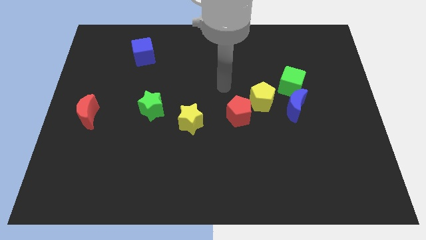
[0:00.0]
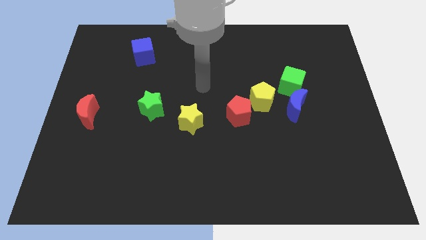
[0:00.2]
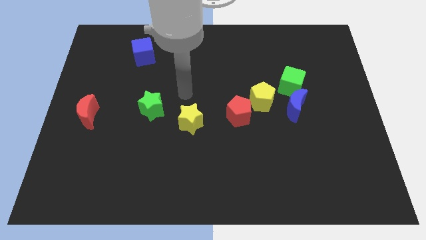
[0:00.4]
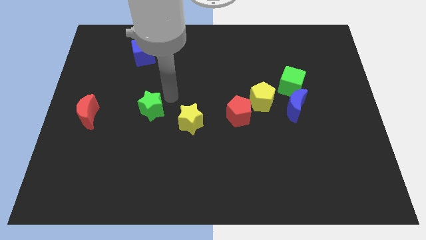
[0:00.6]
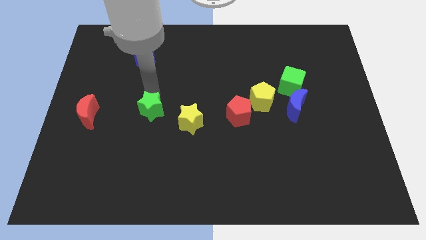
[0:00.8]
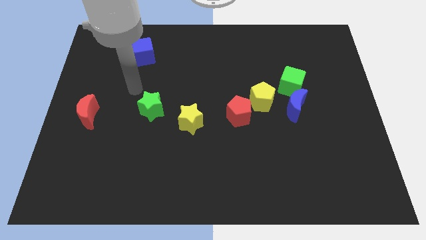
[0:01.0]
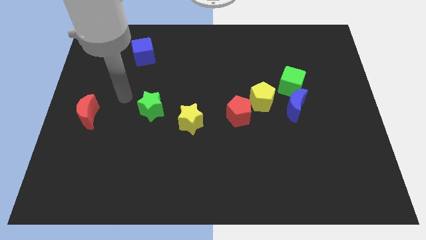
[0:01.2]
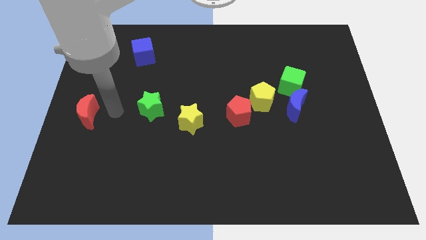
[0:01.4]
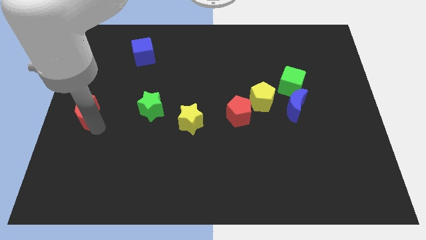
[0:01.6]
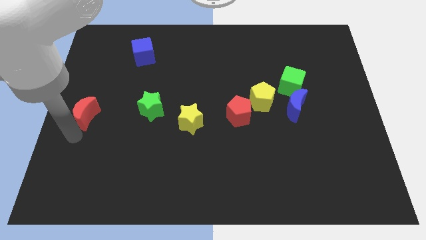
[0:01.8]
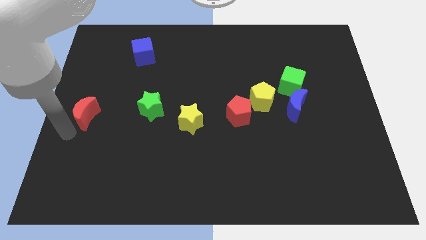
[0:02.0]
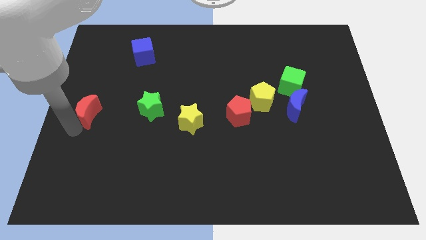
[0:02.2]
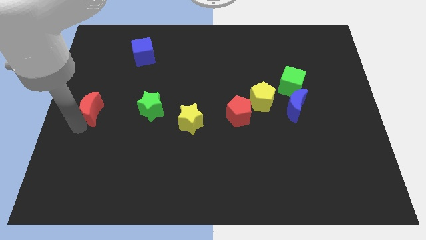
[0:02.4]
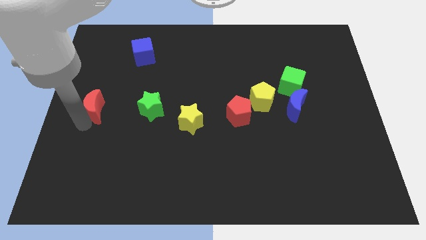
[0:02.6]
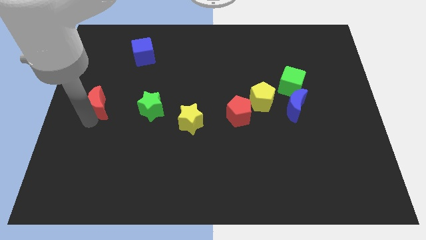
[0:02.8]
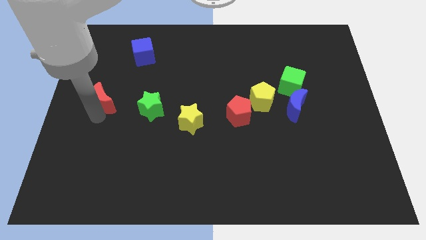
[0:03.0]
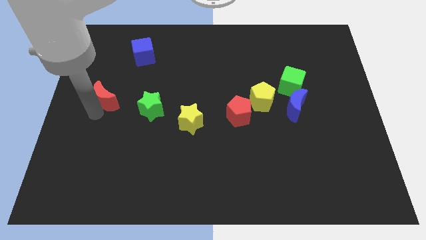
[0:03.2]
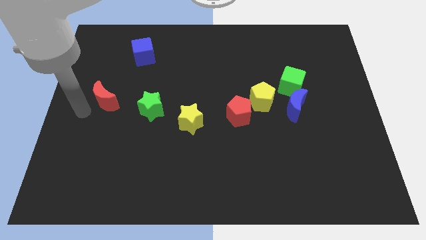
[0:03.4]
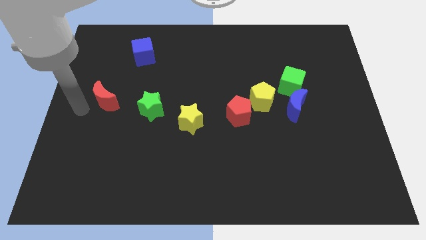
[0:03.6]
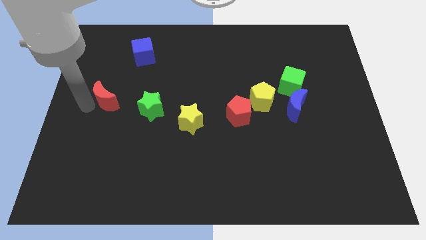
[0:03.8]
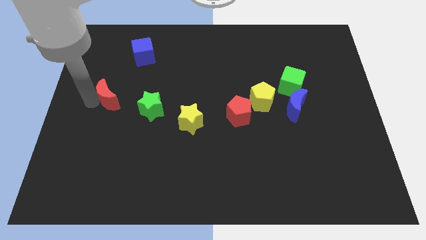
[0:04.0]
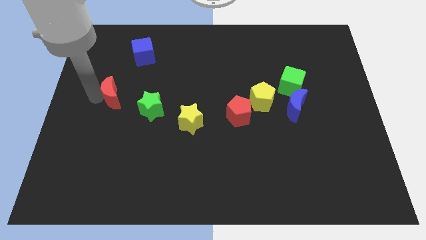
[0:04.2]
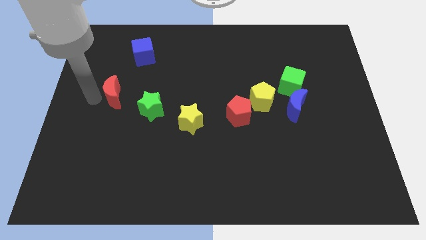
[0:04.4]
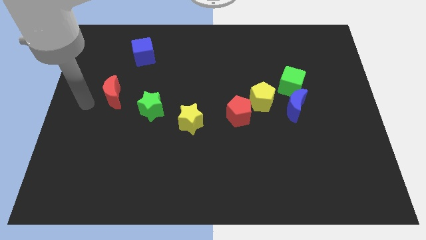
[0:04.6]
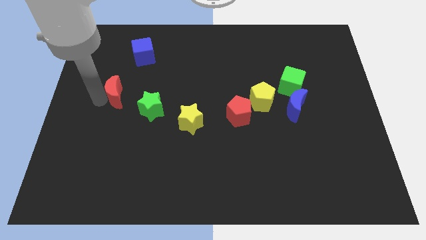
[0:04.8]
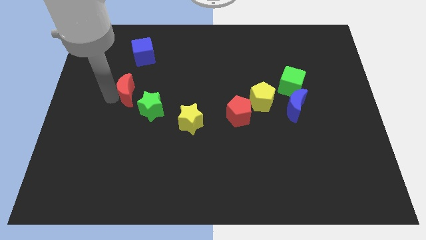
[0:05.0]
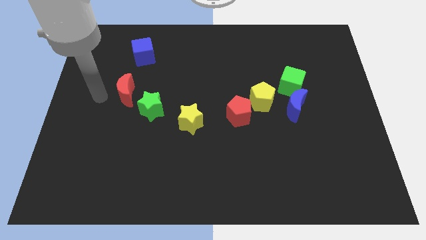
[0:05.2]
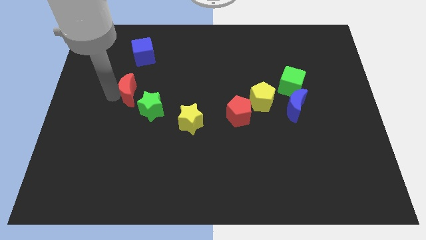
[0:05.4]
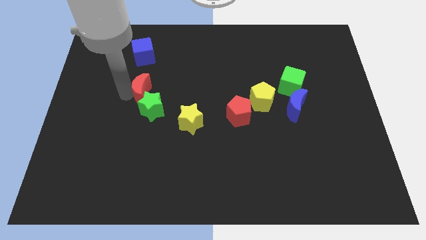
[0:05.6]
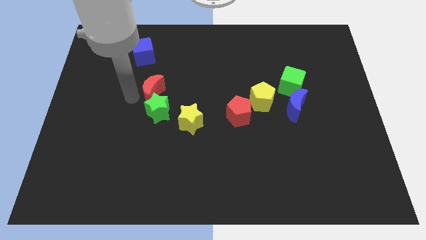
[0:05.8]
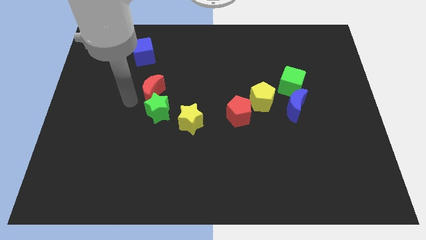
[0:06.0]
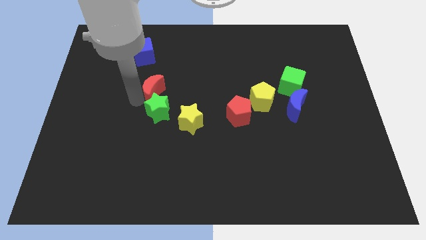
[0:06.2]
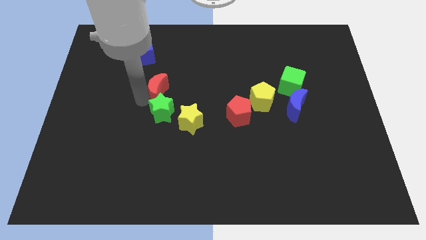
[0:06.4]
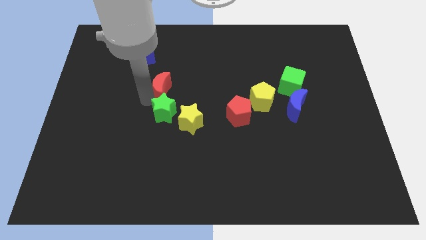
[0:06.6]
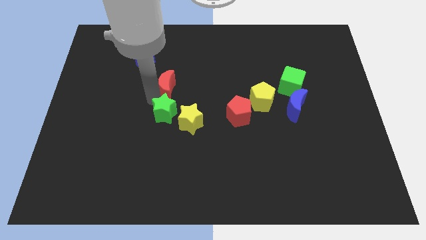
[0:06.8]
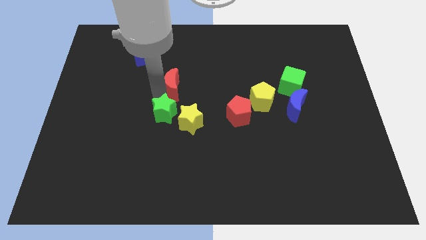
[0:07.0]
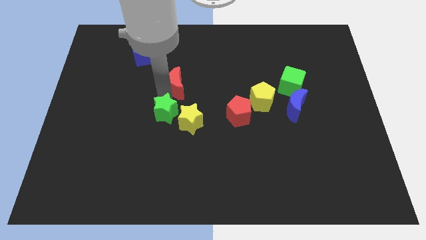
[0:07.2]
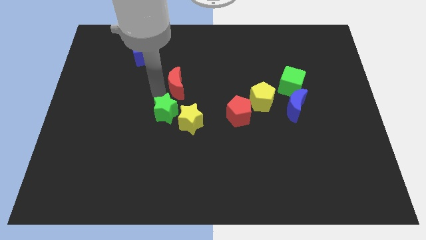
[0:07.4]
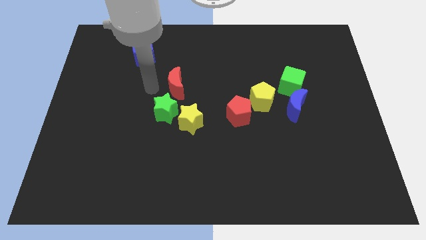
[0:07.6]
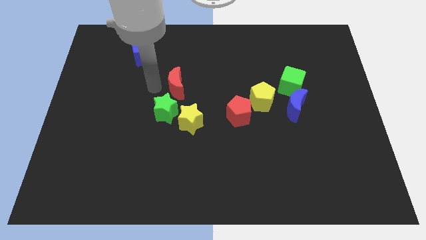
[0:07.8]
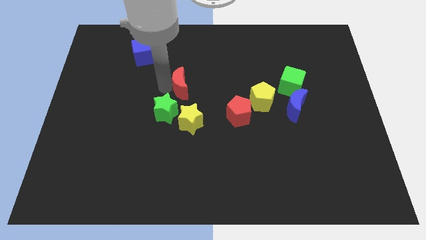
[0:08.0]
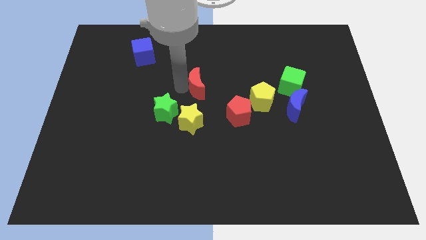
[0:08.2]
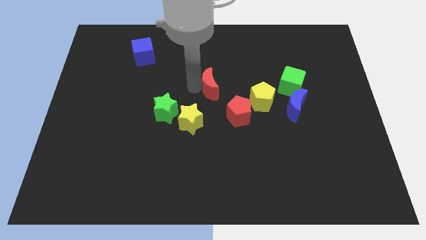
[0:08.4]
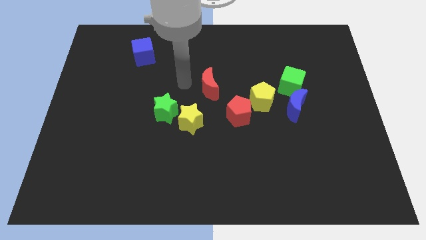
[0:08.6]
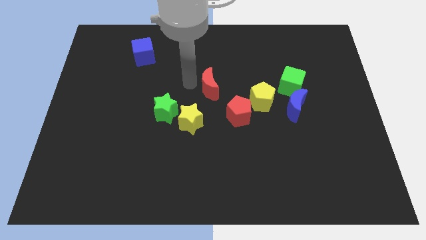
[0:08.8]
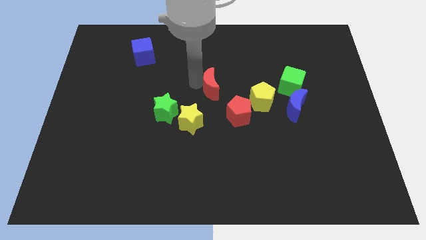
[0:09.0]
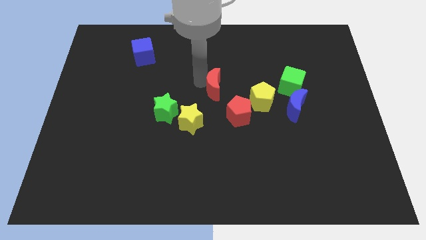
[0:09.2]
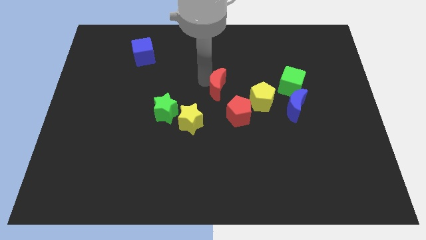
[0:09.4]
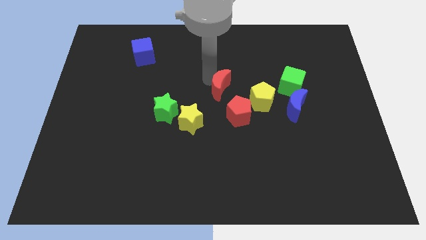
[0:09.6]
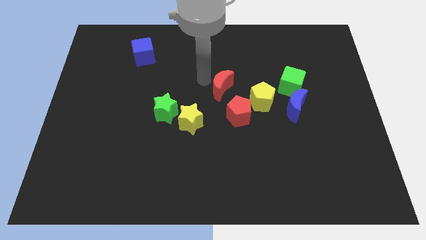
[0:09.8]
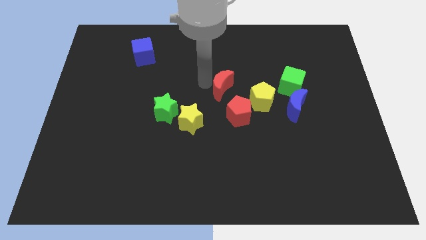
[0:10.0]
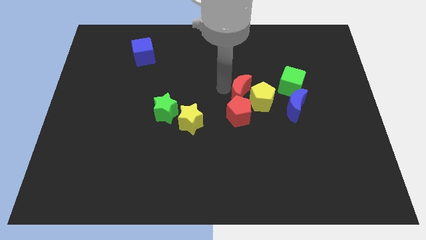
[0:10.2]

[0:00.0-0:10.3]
put the red moon next to the yellow pentagon

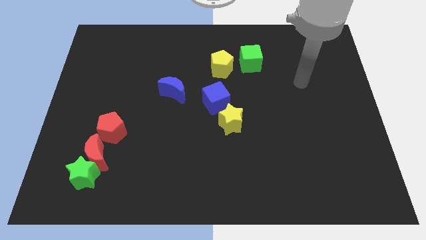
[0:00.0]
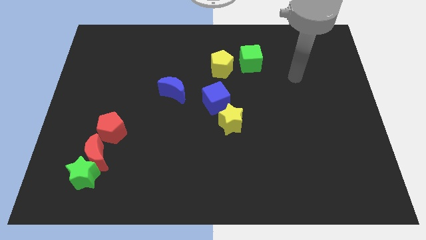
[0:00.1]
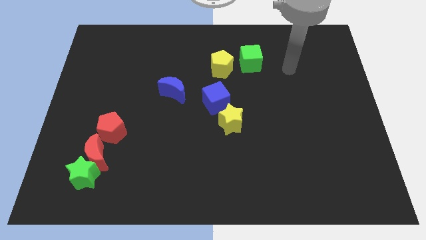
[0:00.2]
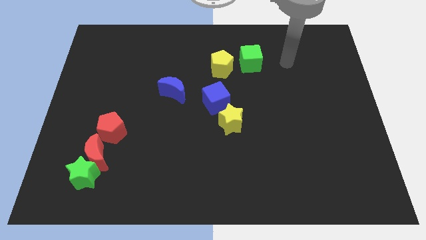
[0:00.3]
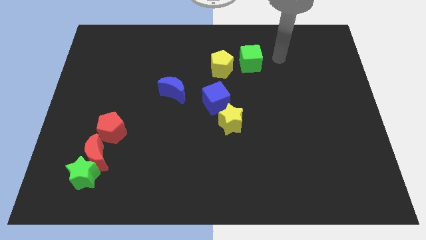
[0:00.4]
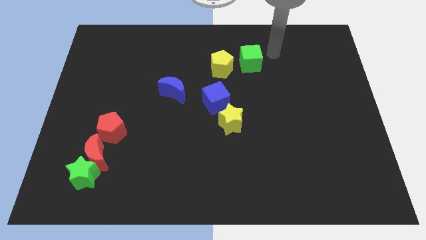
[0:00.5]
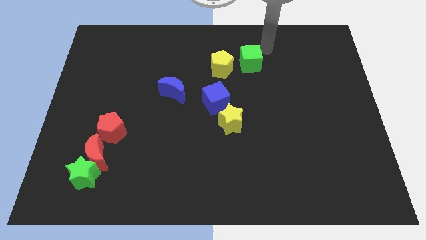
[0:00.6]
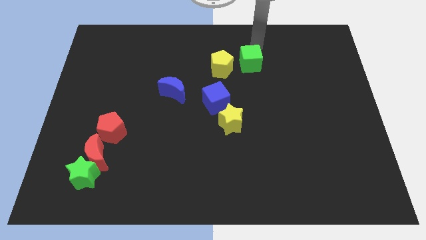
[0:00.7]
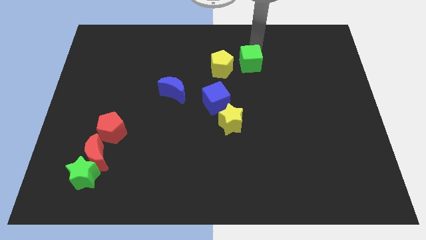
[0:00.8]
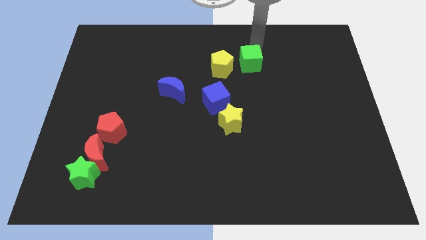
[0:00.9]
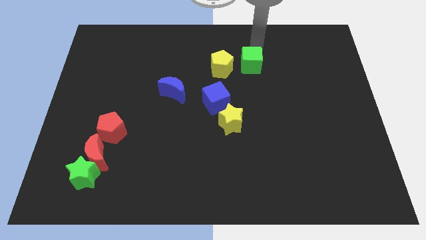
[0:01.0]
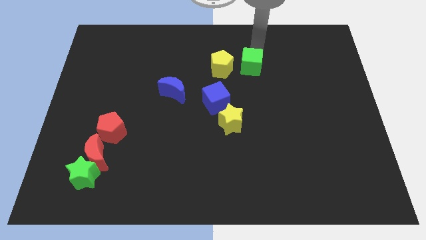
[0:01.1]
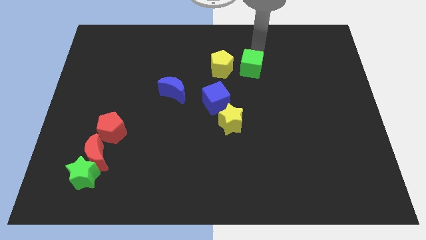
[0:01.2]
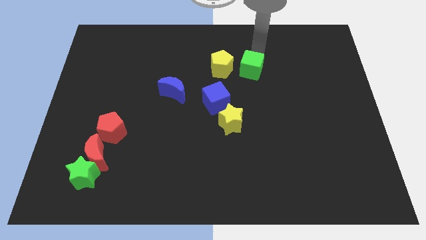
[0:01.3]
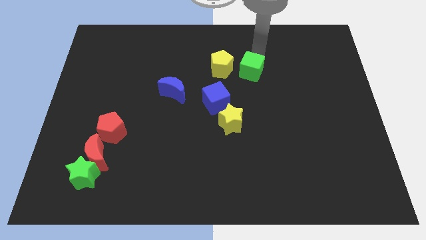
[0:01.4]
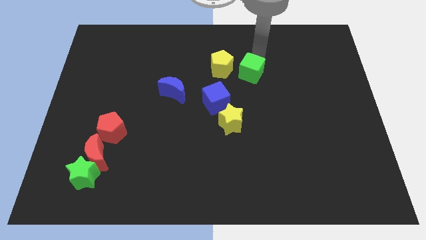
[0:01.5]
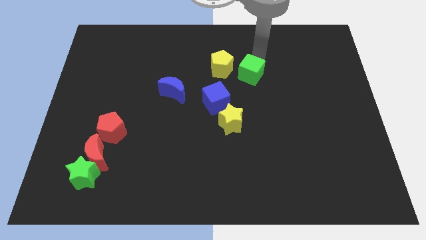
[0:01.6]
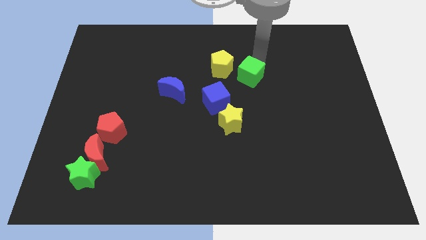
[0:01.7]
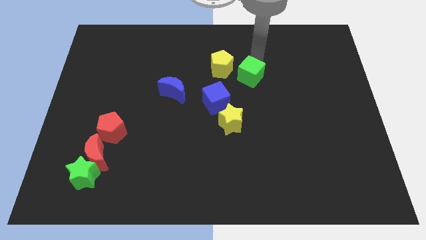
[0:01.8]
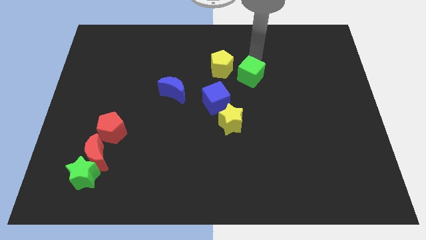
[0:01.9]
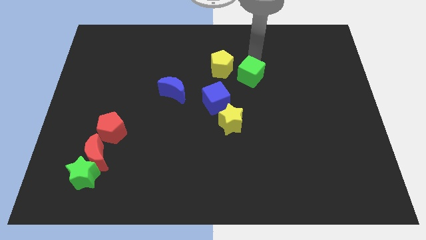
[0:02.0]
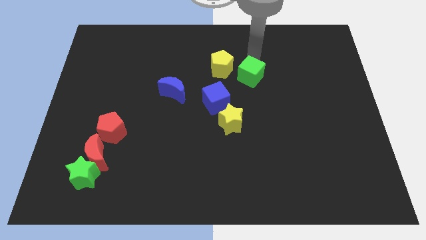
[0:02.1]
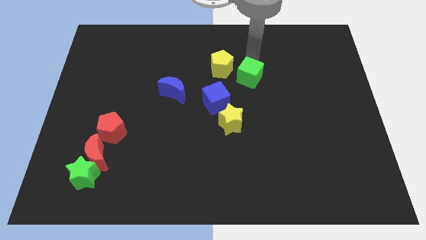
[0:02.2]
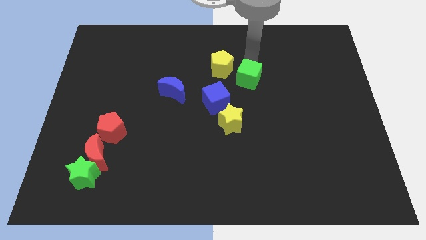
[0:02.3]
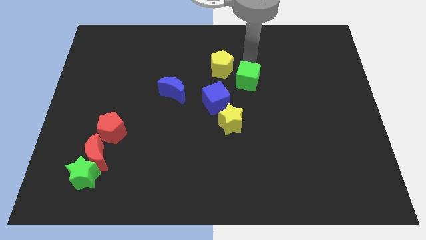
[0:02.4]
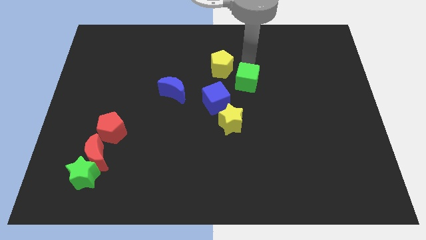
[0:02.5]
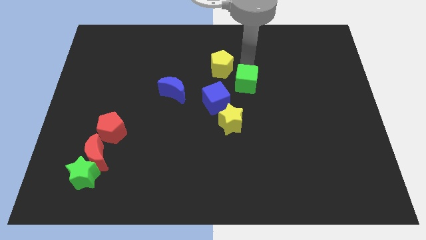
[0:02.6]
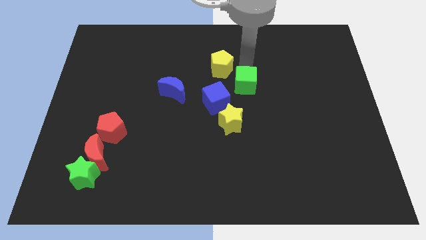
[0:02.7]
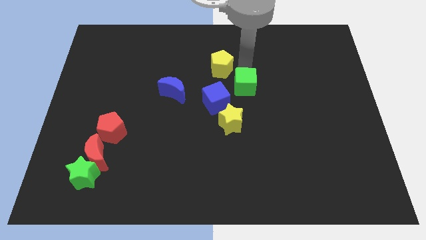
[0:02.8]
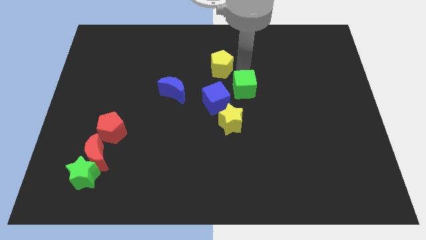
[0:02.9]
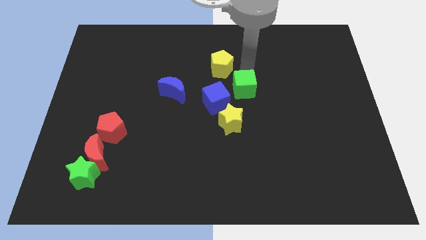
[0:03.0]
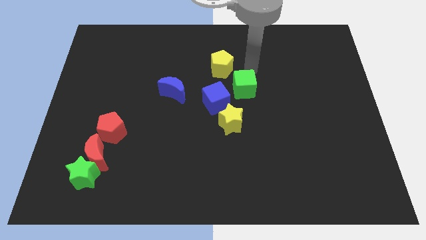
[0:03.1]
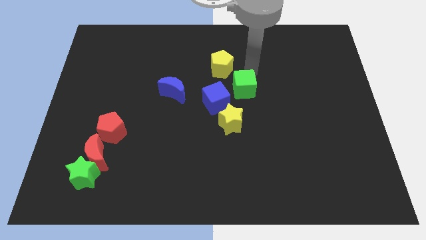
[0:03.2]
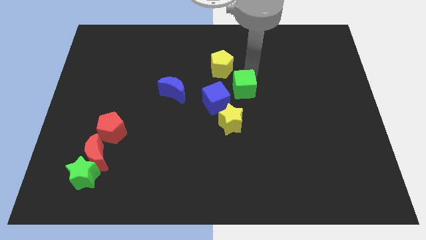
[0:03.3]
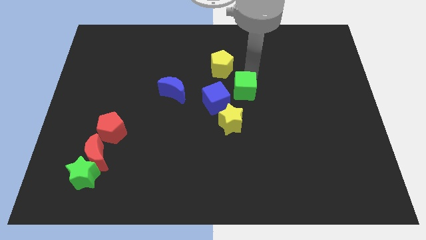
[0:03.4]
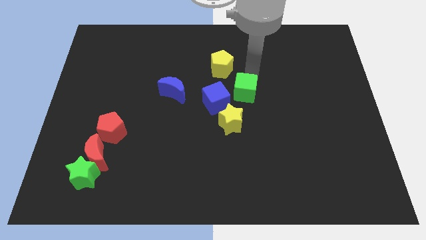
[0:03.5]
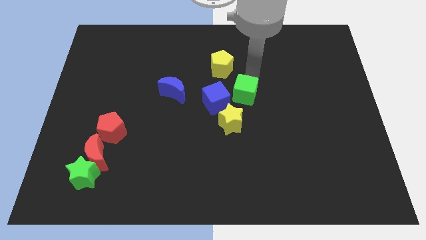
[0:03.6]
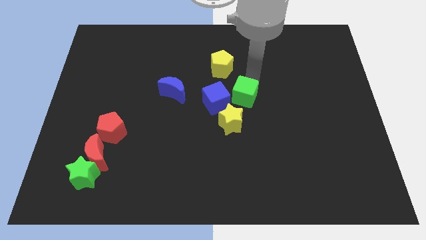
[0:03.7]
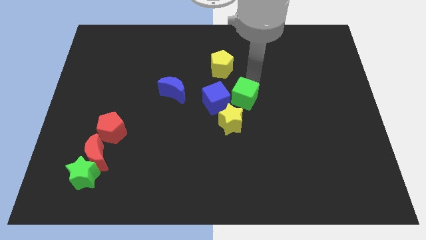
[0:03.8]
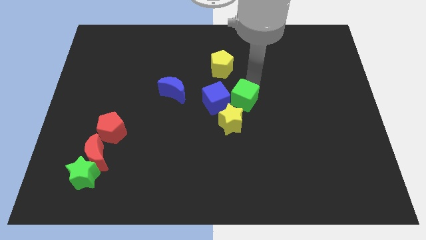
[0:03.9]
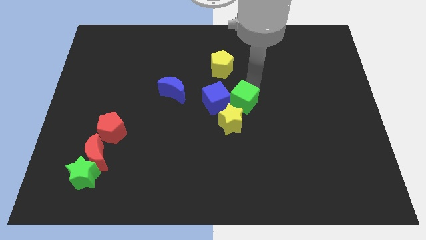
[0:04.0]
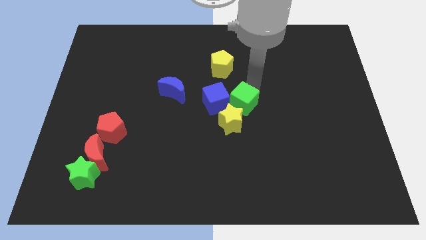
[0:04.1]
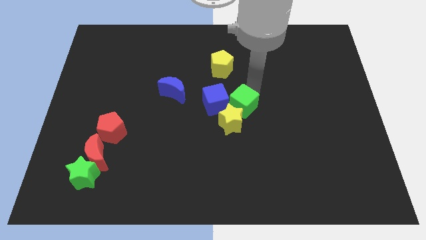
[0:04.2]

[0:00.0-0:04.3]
move the green cube to the yellow star
